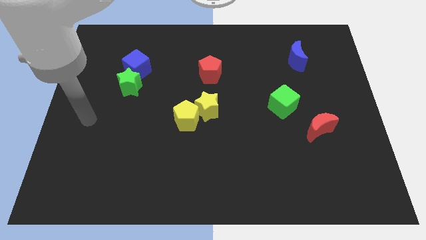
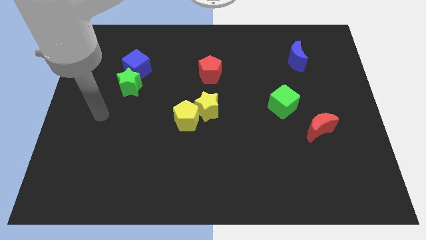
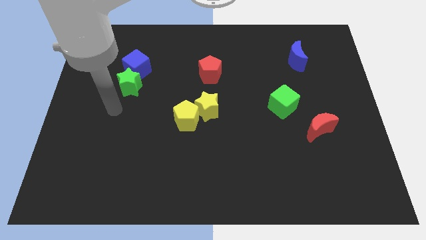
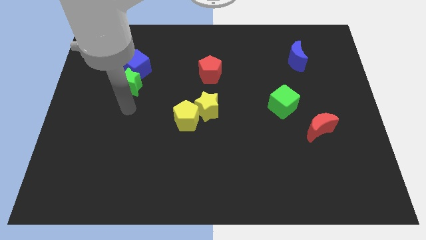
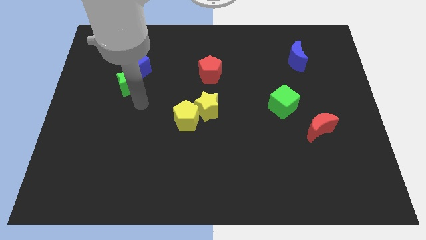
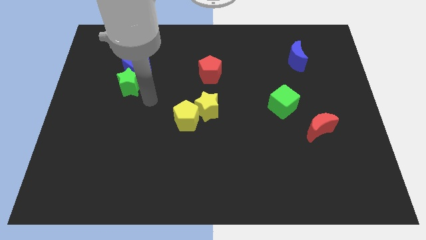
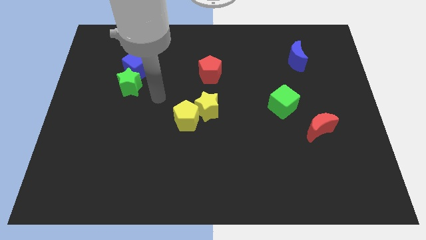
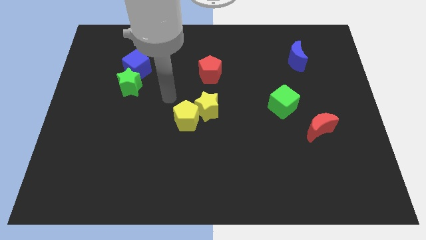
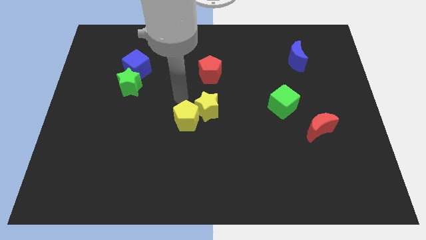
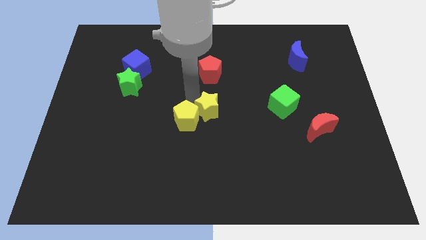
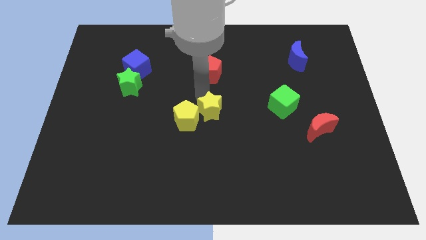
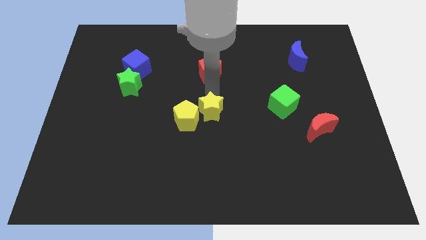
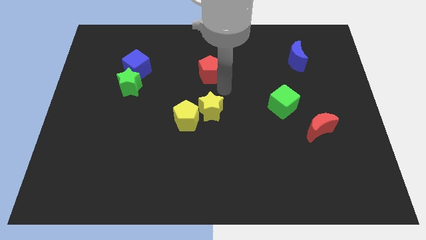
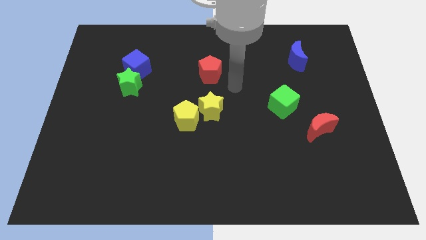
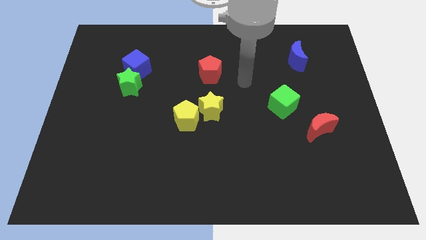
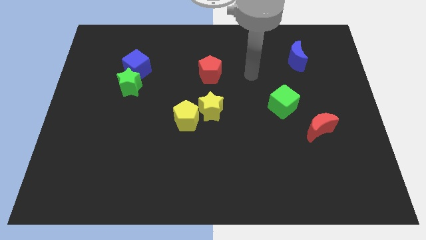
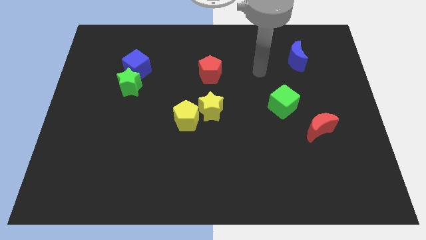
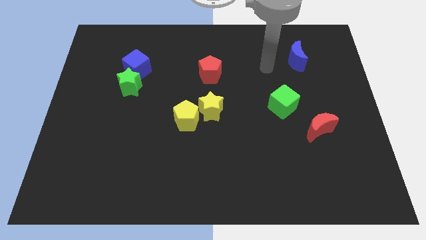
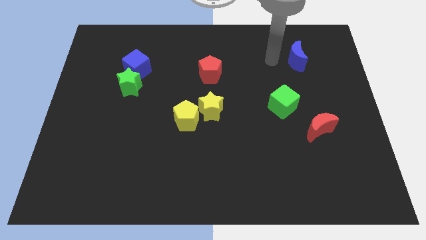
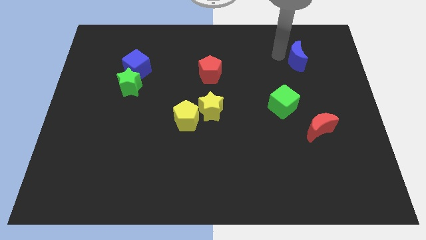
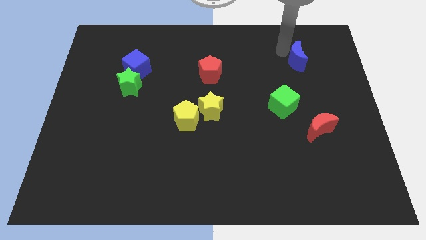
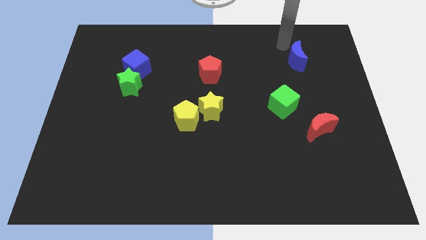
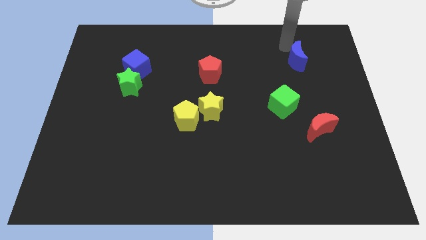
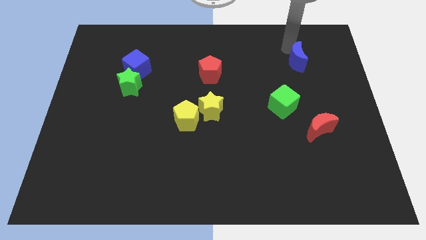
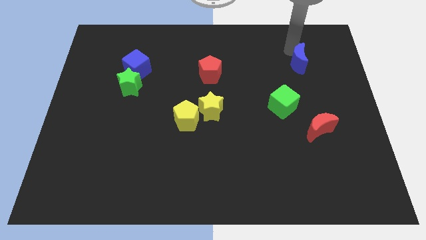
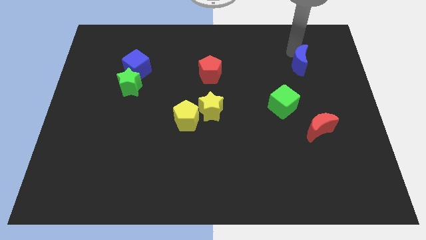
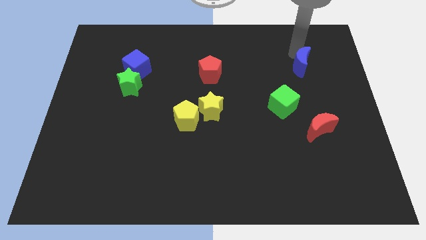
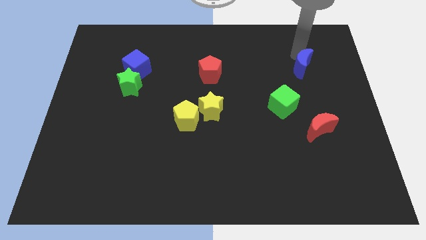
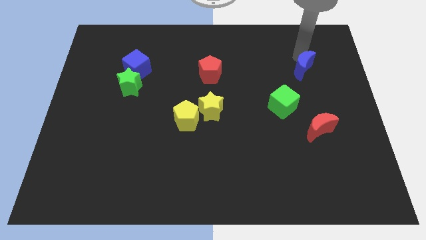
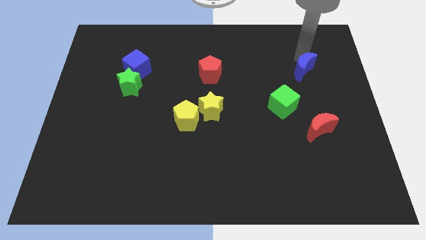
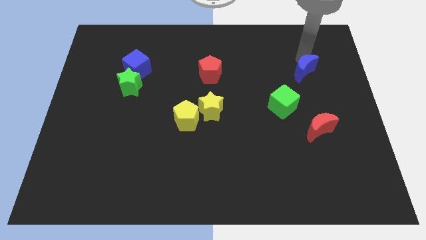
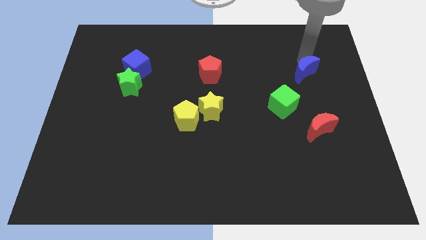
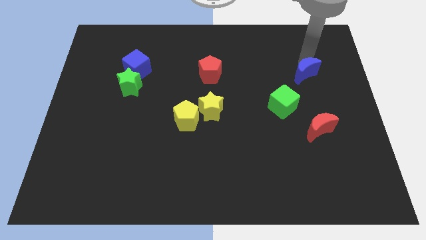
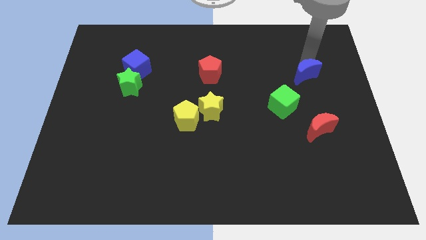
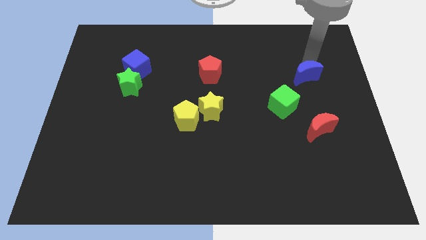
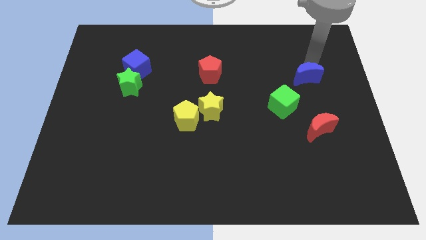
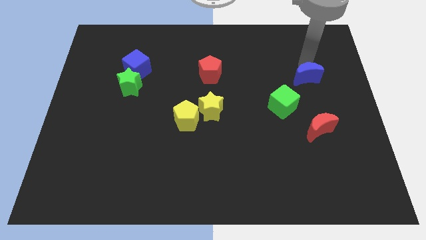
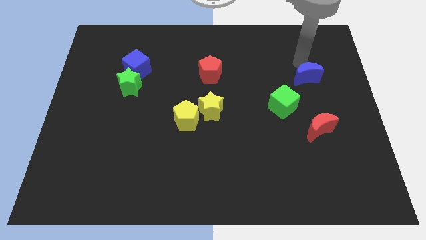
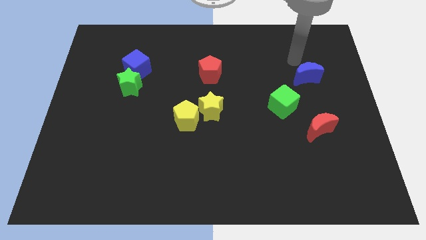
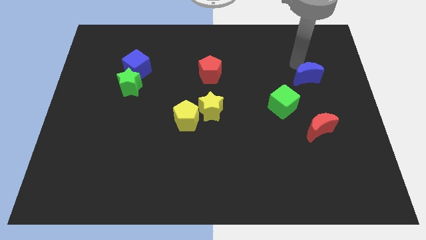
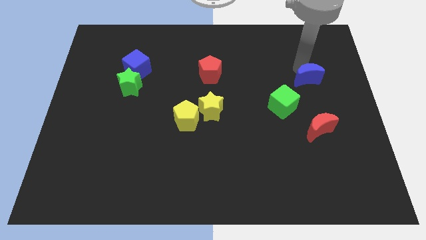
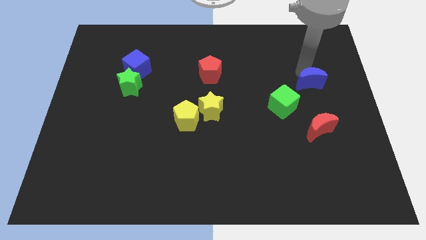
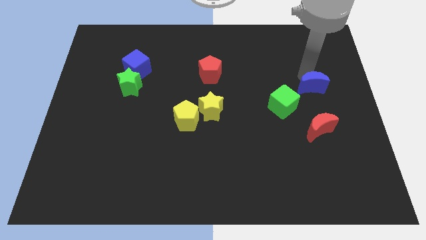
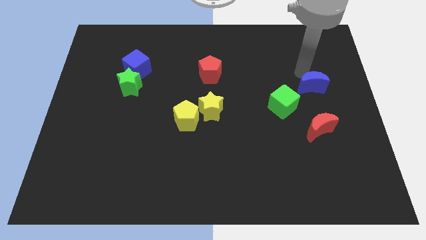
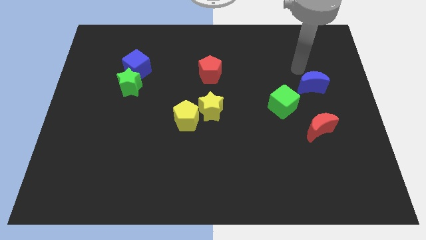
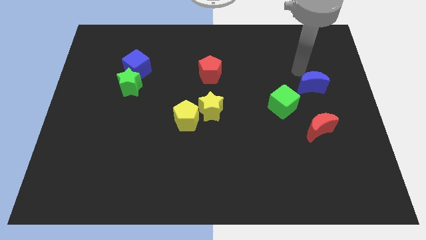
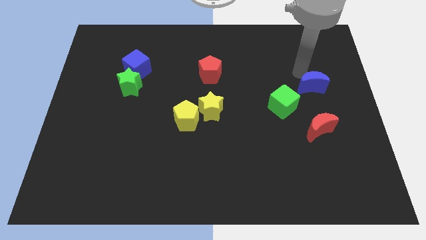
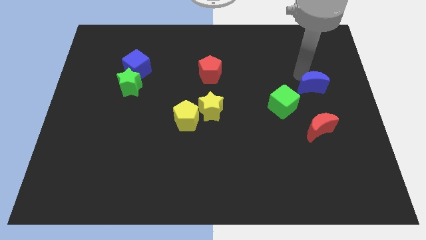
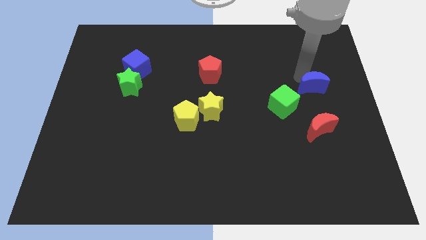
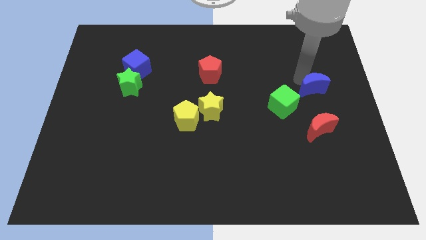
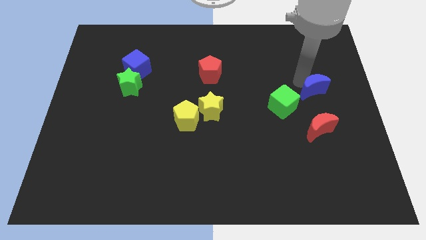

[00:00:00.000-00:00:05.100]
push the blue moon to the right of the green cube

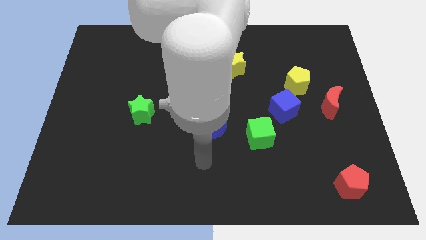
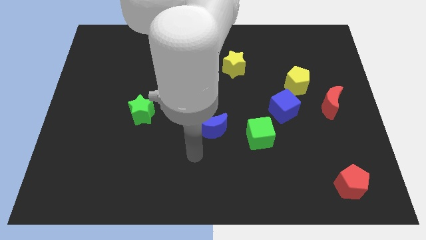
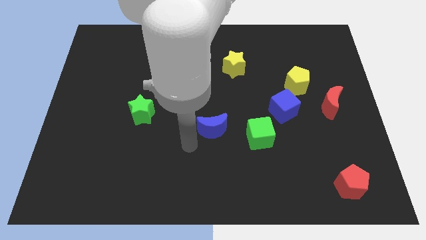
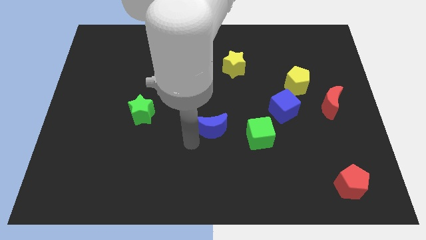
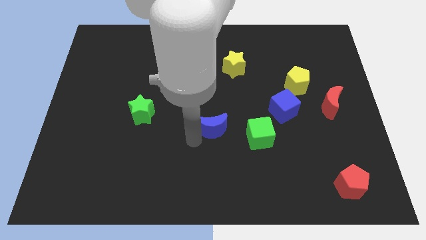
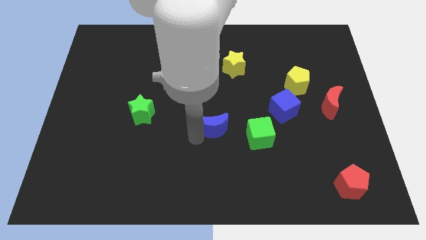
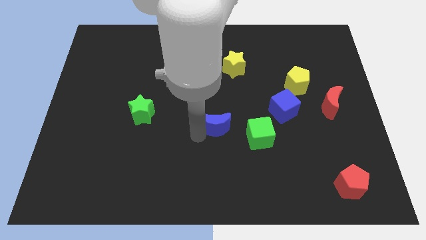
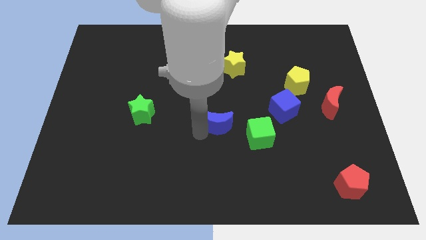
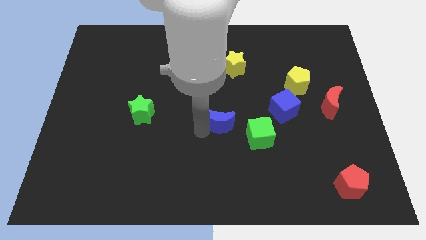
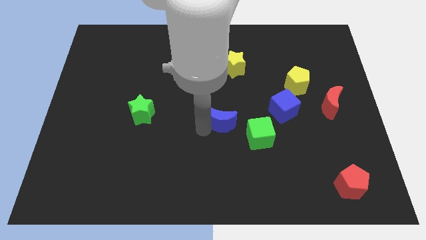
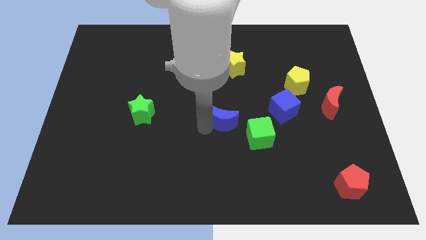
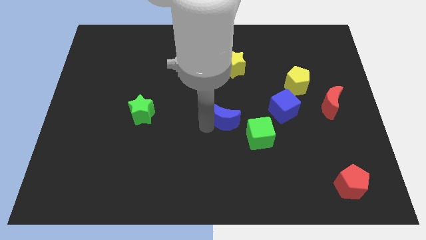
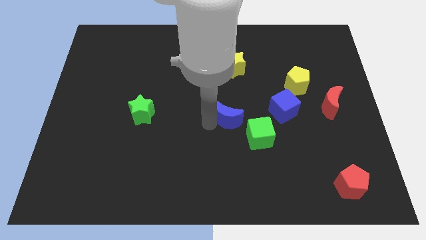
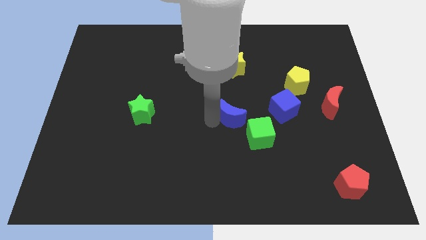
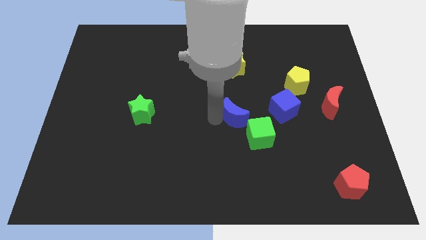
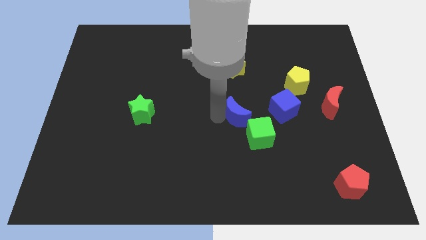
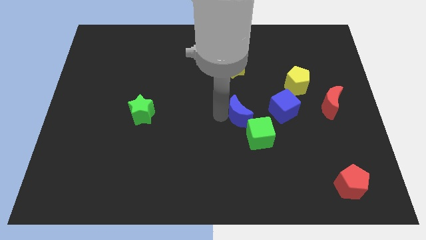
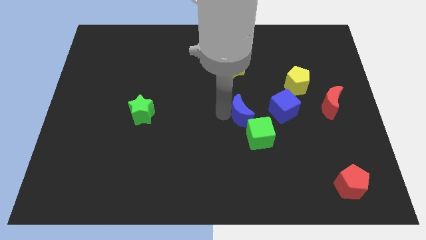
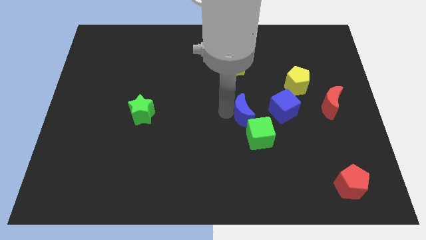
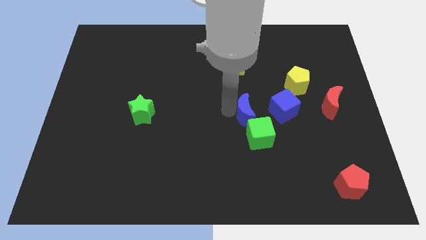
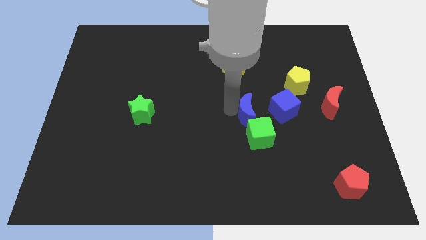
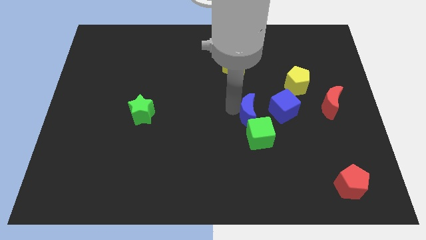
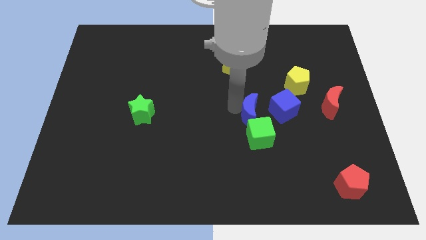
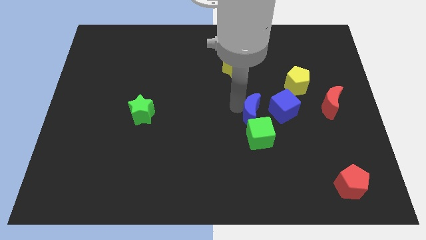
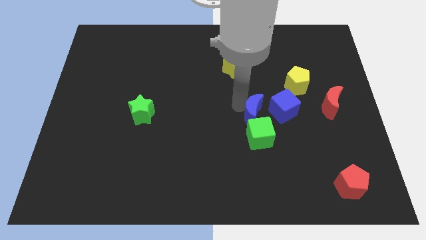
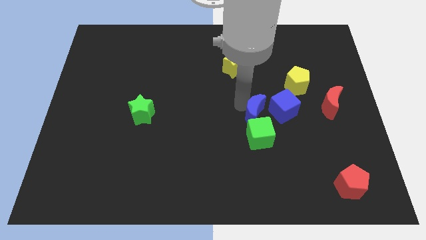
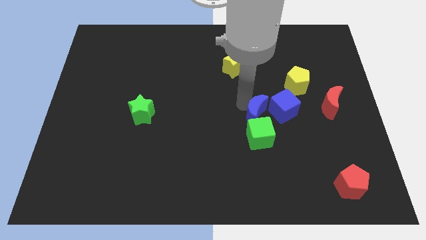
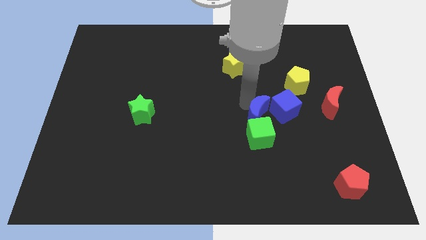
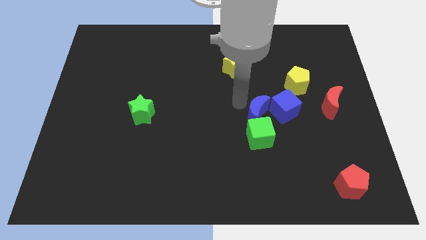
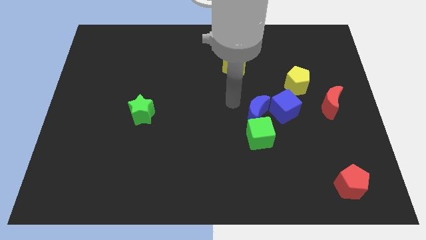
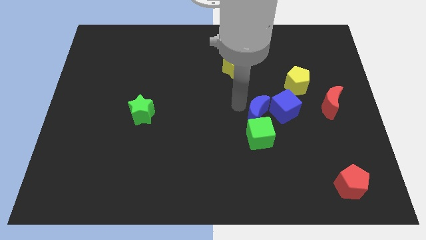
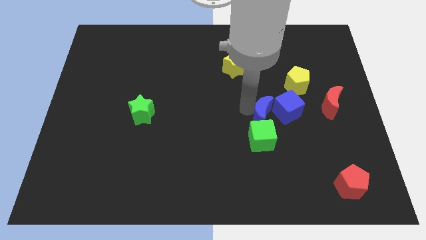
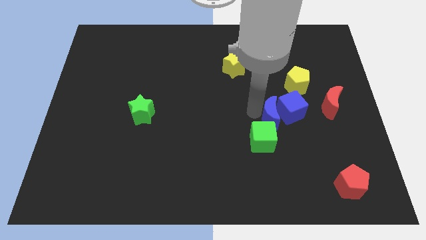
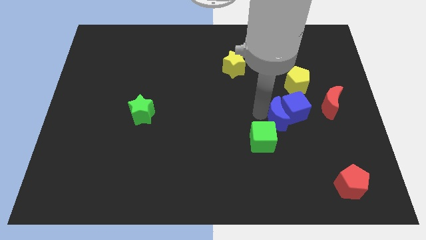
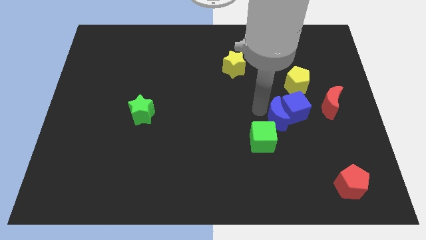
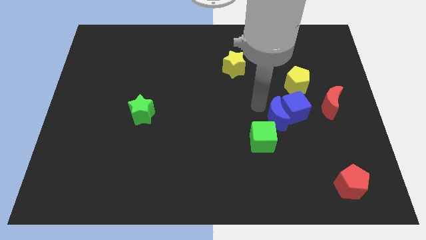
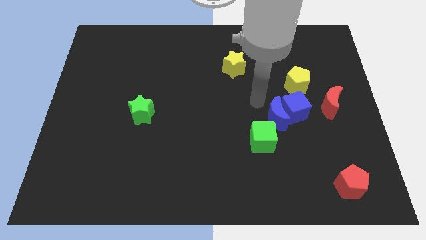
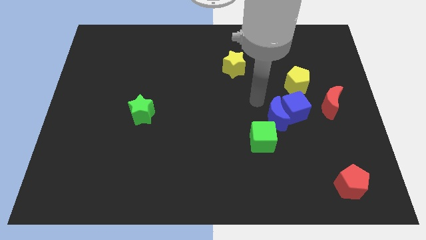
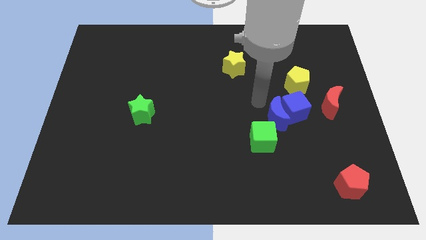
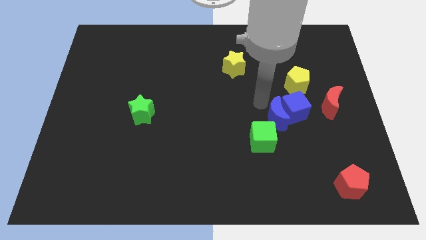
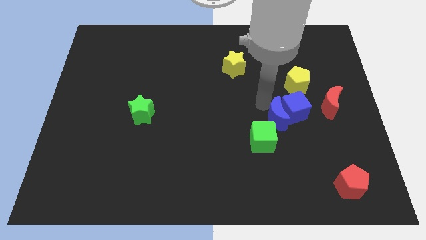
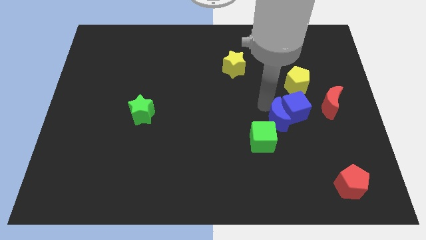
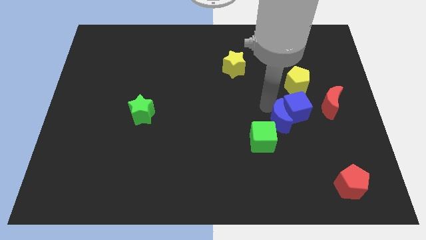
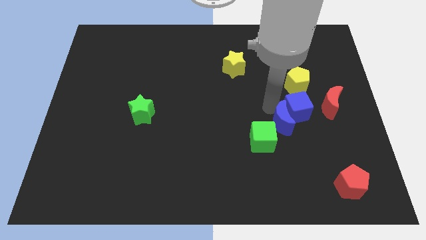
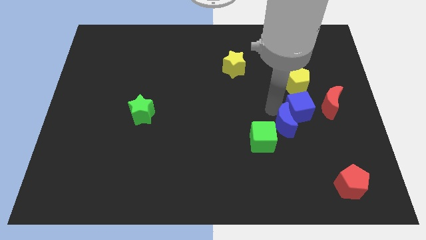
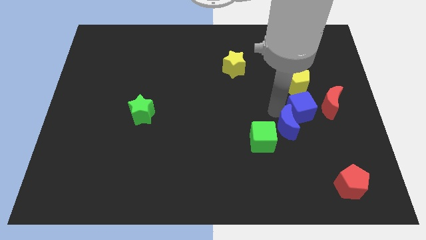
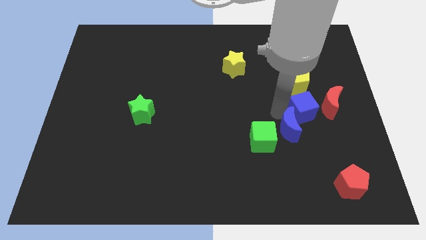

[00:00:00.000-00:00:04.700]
slide the blue moon diagonally down and to the left of the red moon
